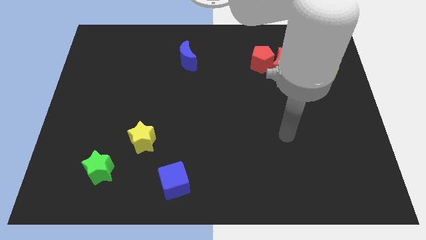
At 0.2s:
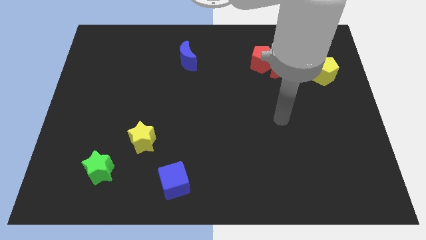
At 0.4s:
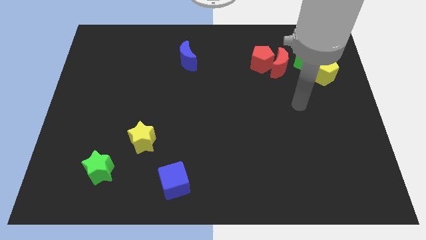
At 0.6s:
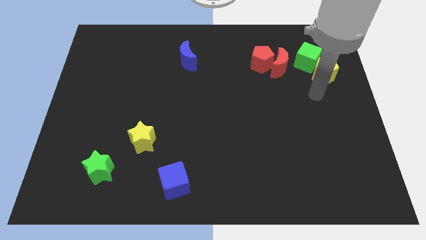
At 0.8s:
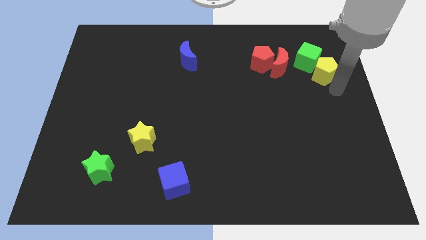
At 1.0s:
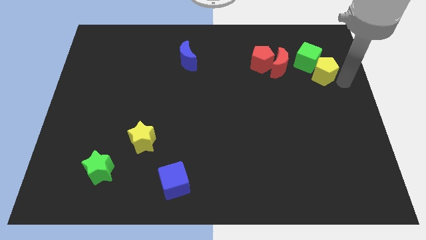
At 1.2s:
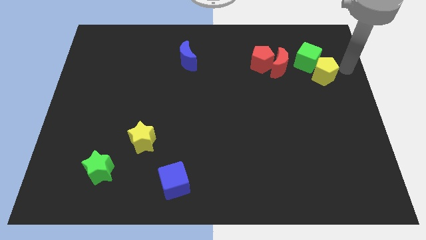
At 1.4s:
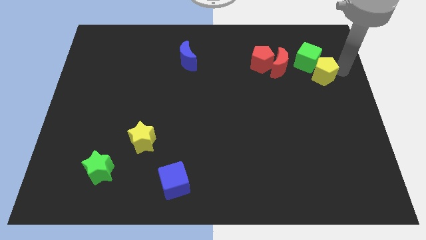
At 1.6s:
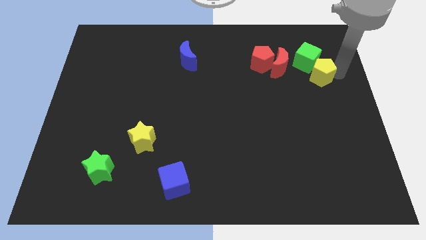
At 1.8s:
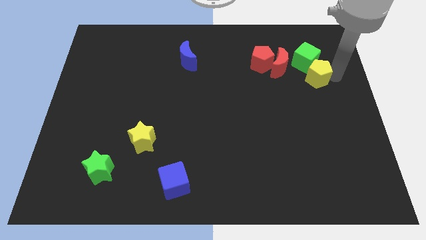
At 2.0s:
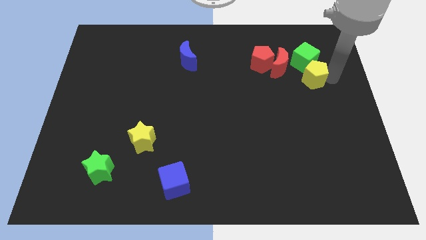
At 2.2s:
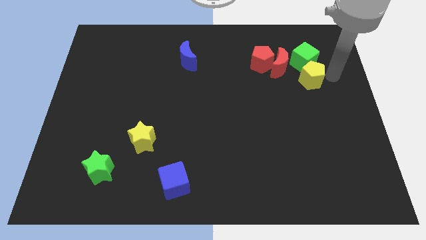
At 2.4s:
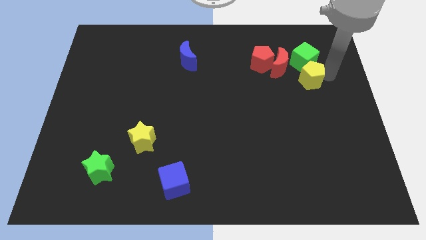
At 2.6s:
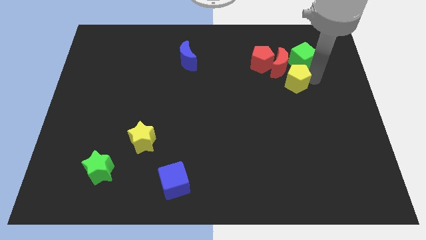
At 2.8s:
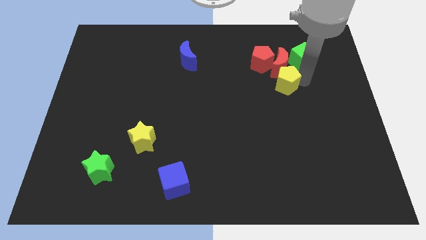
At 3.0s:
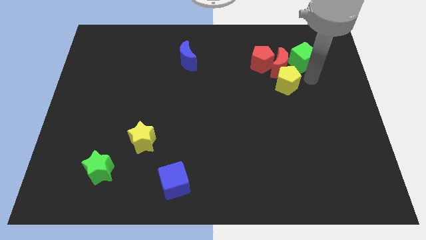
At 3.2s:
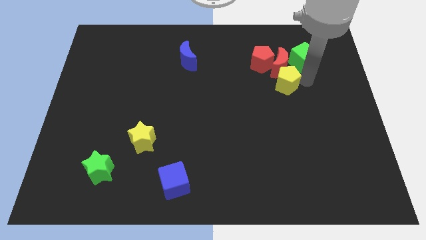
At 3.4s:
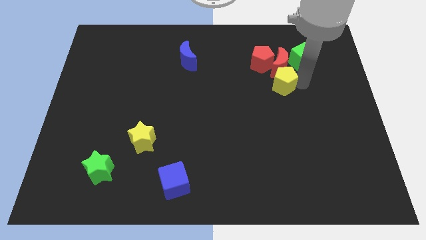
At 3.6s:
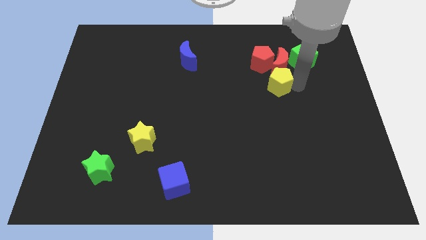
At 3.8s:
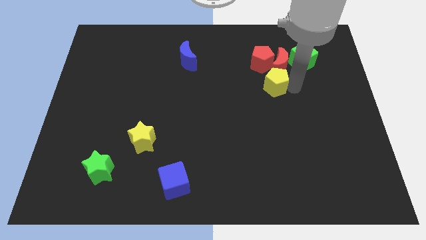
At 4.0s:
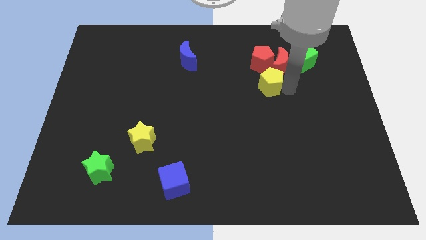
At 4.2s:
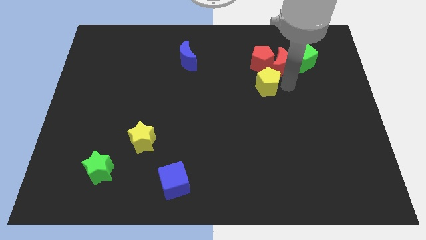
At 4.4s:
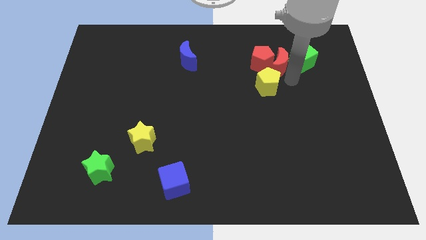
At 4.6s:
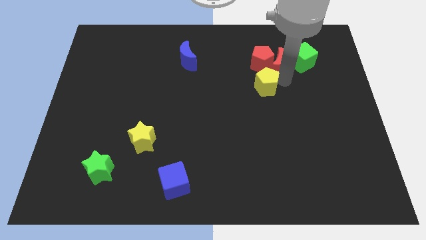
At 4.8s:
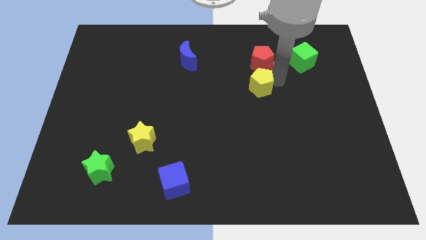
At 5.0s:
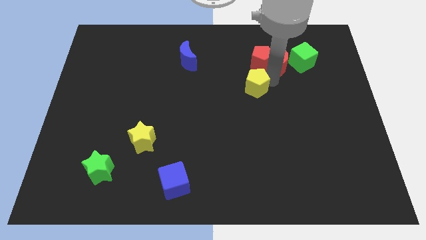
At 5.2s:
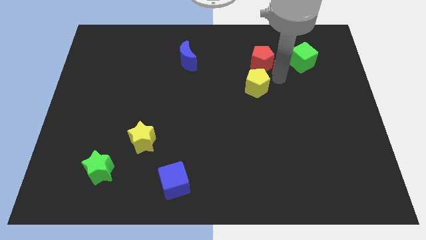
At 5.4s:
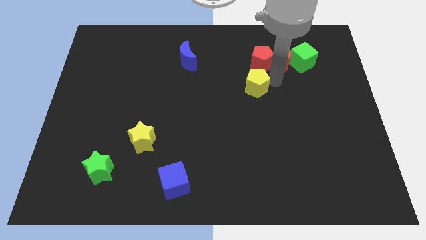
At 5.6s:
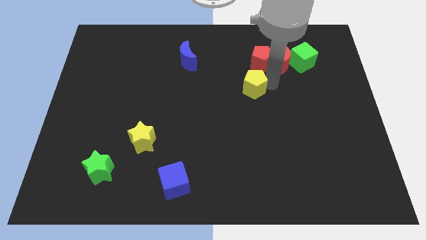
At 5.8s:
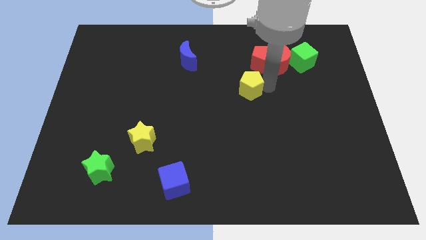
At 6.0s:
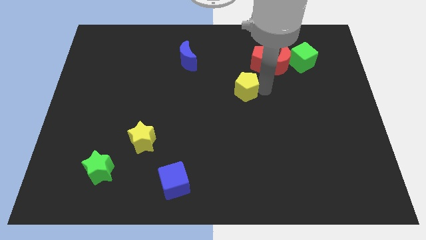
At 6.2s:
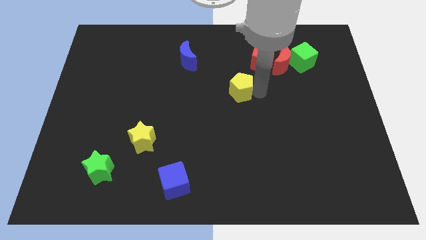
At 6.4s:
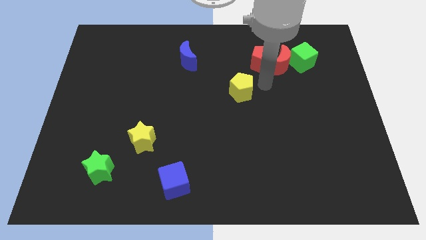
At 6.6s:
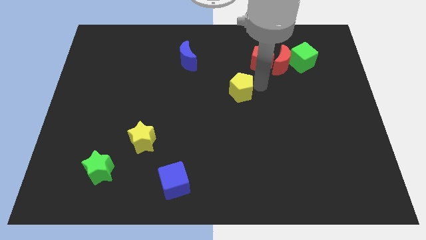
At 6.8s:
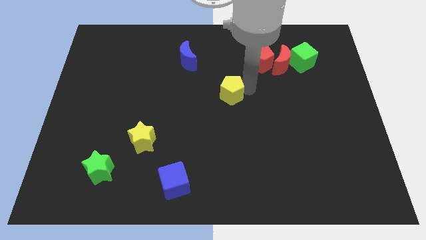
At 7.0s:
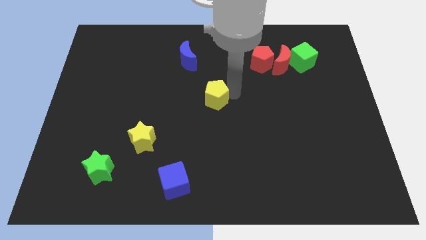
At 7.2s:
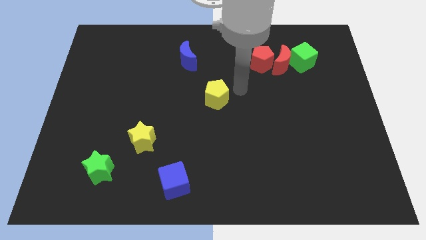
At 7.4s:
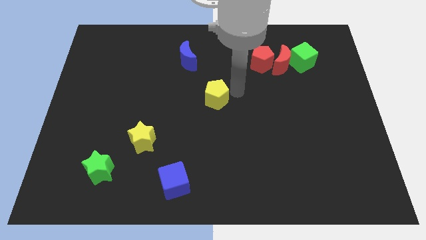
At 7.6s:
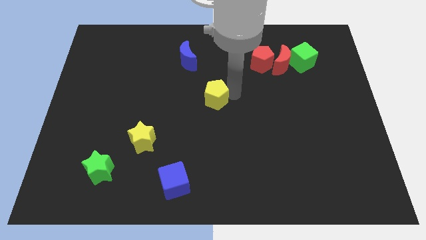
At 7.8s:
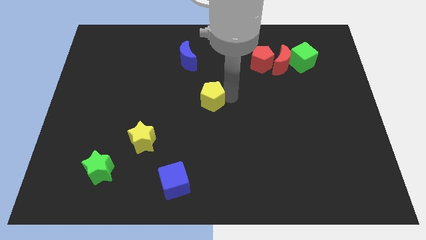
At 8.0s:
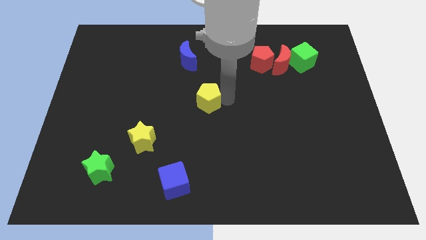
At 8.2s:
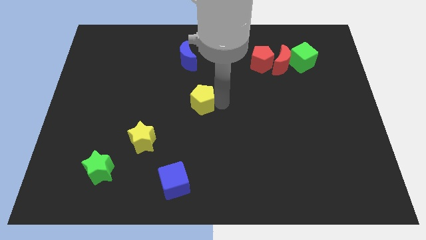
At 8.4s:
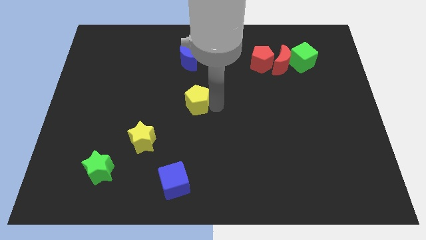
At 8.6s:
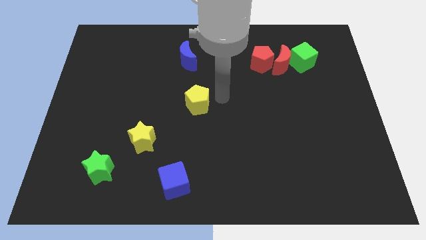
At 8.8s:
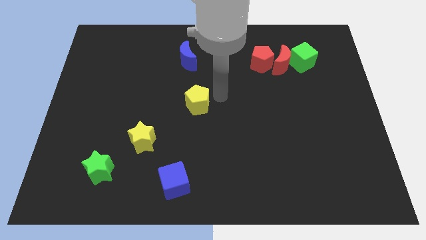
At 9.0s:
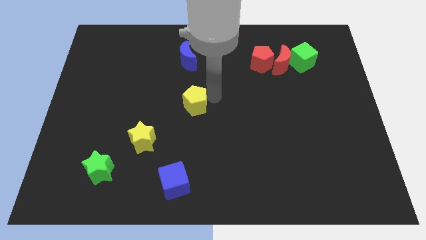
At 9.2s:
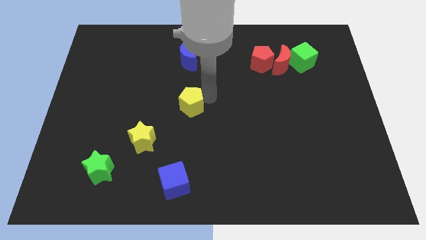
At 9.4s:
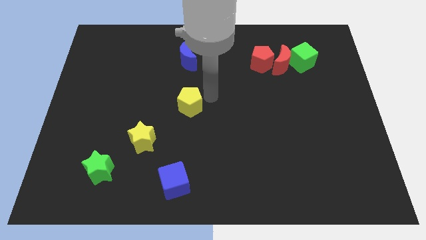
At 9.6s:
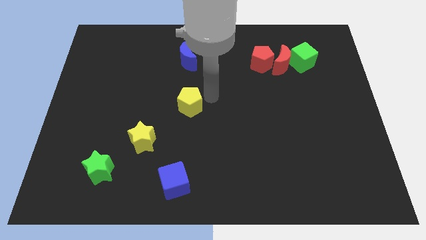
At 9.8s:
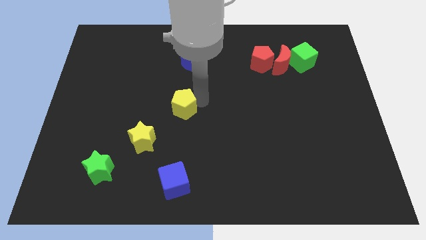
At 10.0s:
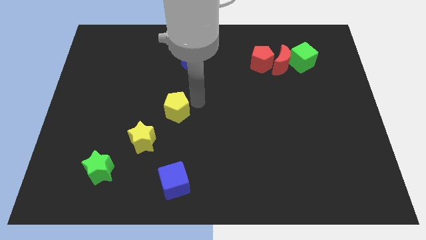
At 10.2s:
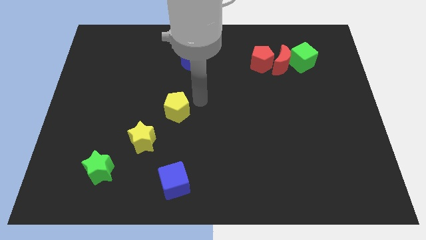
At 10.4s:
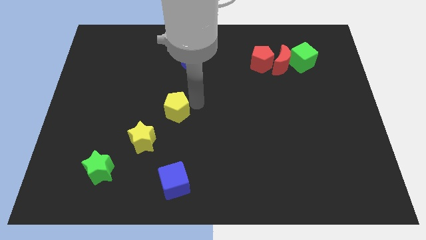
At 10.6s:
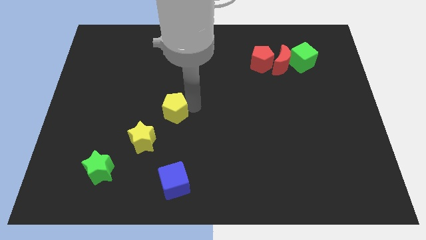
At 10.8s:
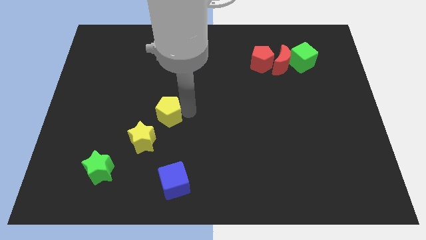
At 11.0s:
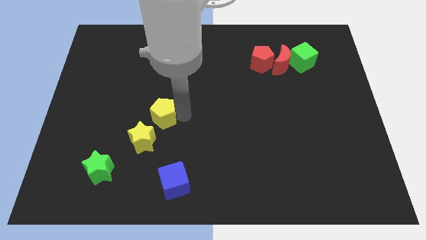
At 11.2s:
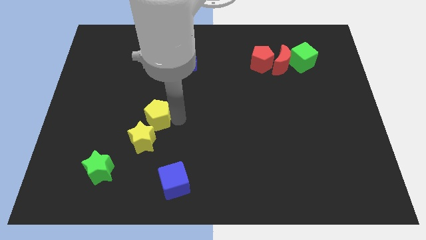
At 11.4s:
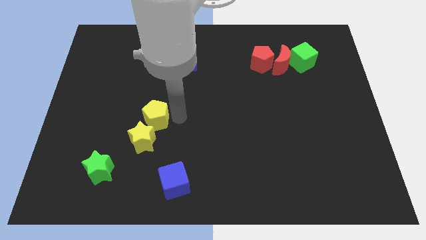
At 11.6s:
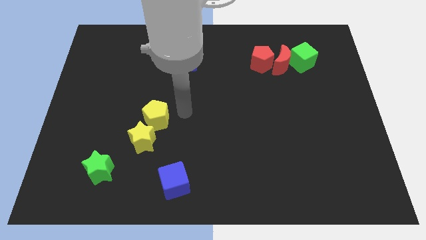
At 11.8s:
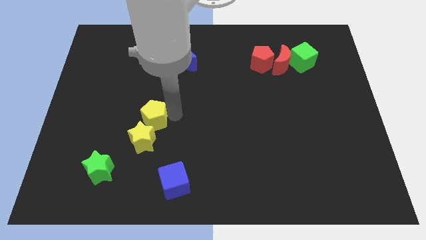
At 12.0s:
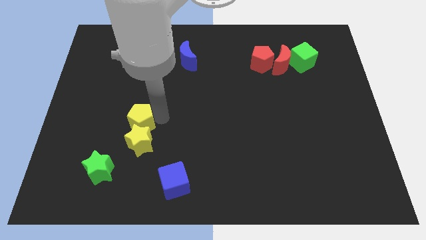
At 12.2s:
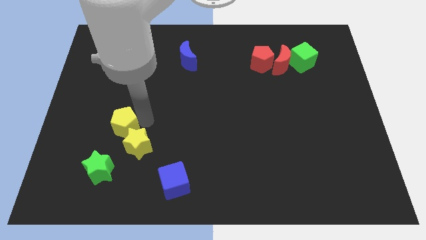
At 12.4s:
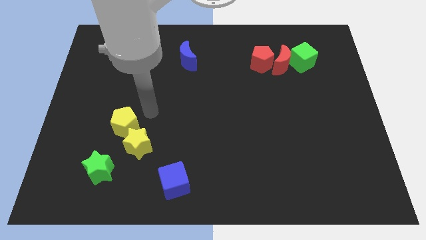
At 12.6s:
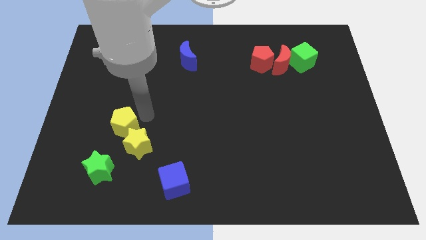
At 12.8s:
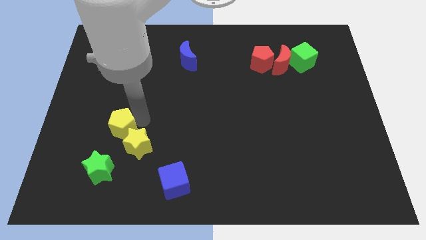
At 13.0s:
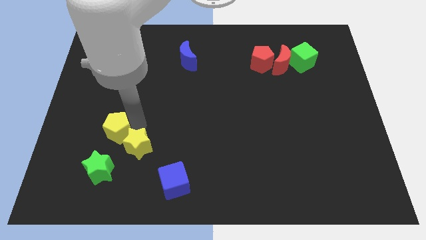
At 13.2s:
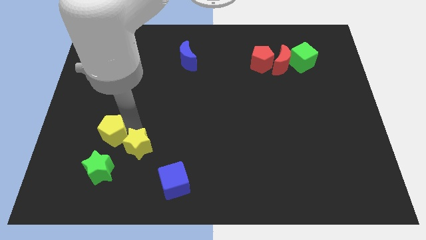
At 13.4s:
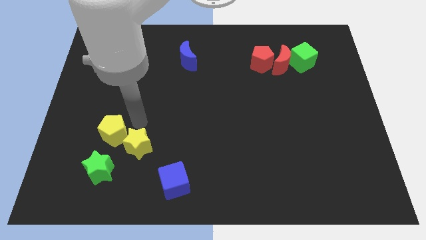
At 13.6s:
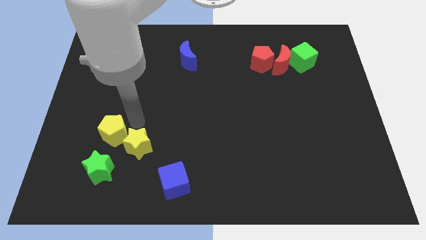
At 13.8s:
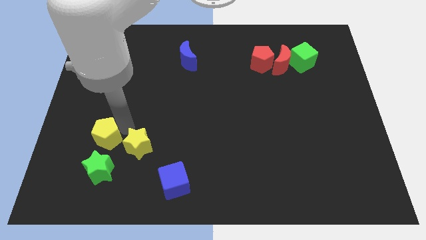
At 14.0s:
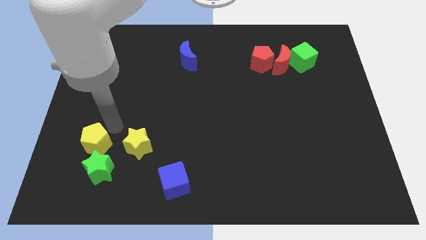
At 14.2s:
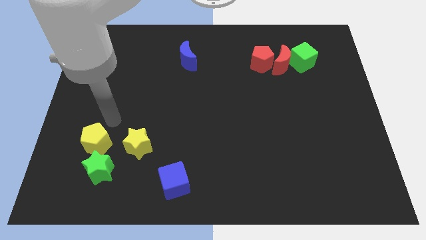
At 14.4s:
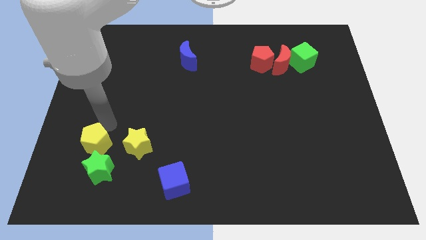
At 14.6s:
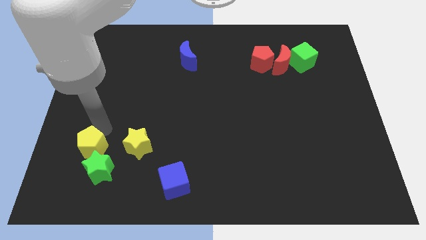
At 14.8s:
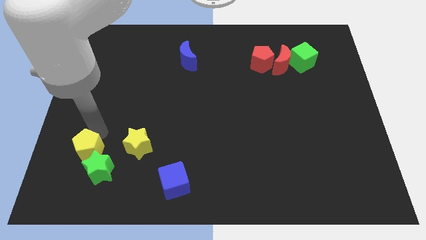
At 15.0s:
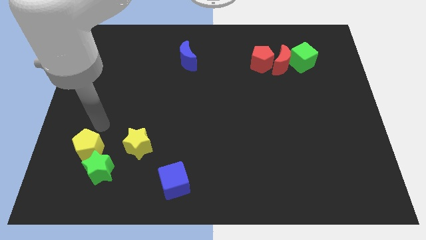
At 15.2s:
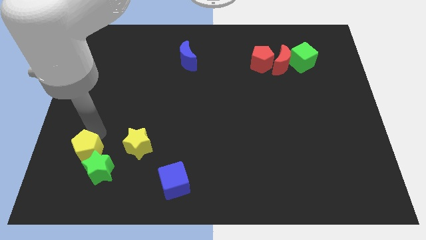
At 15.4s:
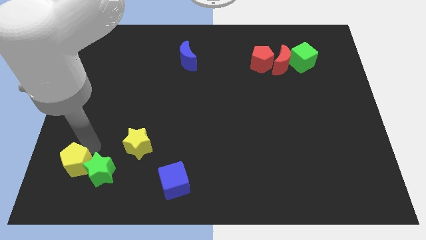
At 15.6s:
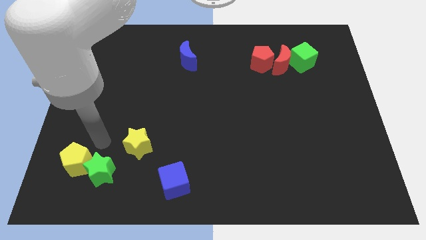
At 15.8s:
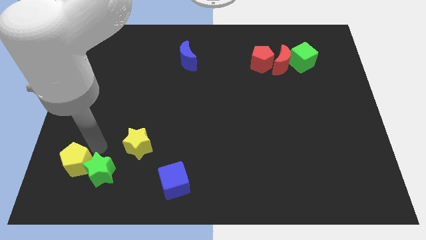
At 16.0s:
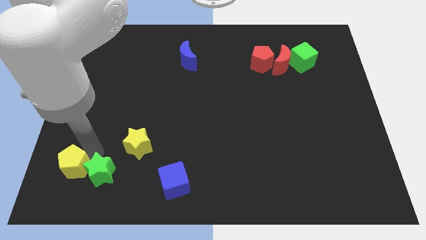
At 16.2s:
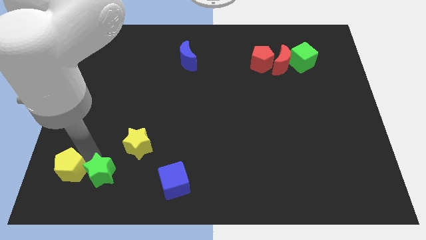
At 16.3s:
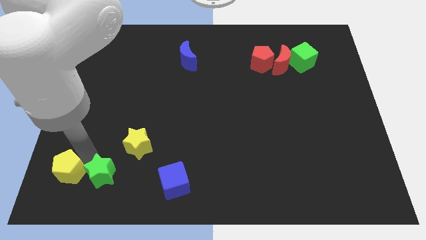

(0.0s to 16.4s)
move the yellow pentagon to the bottom left of the board
